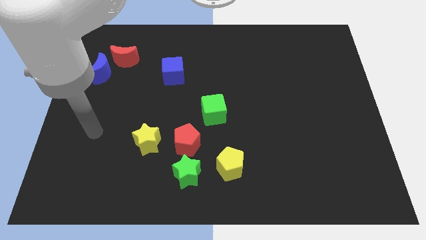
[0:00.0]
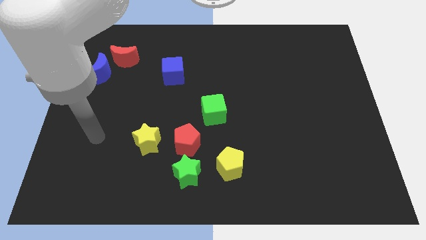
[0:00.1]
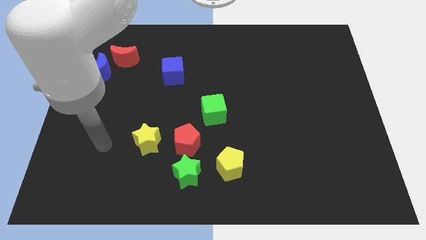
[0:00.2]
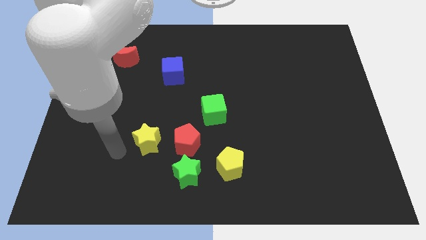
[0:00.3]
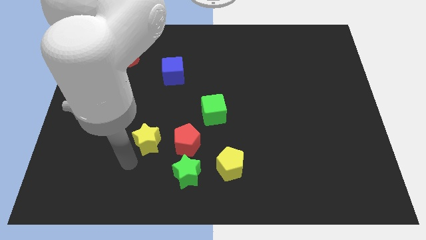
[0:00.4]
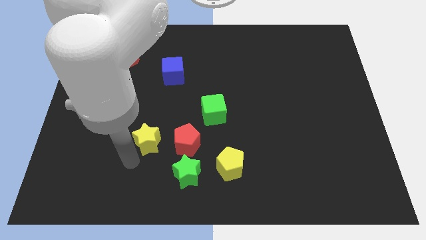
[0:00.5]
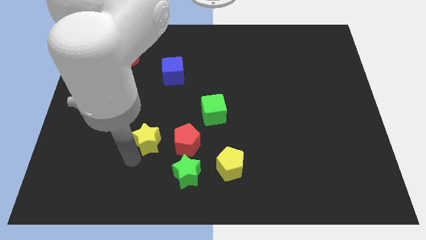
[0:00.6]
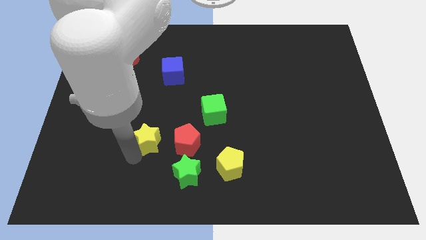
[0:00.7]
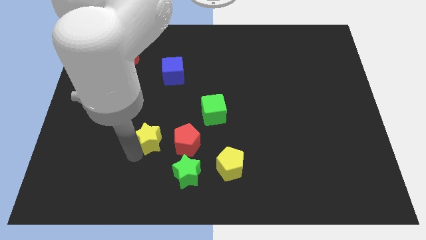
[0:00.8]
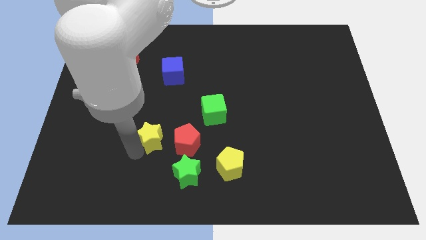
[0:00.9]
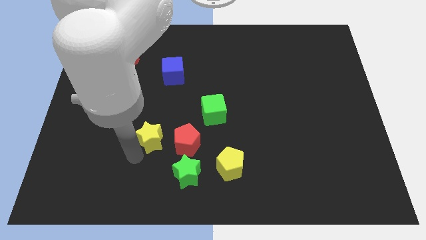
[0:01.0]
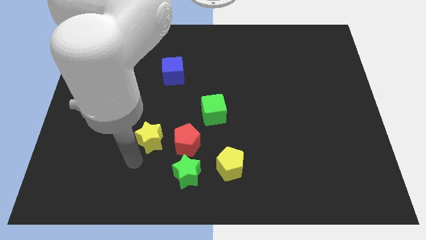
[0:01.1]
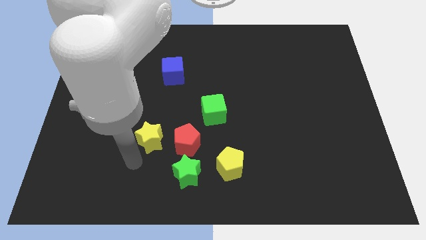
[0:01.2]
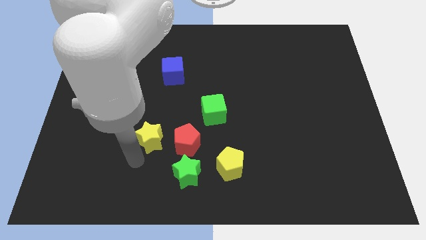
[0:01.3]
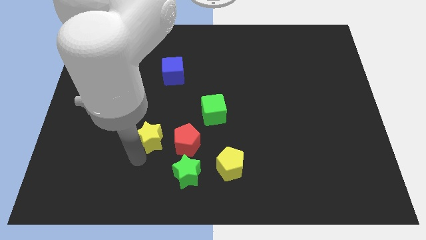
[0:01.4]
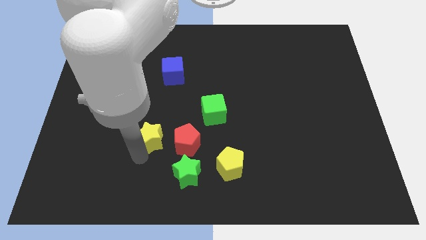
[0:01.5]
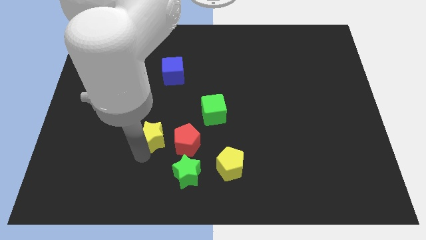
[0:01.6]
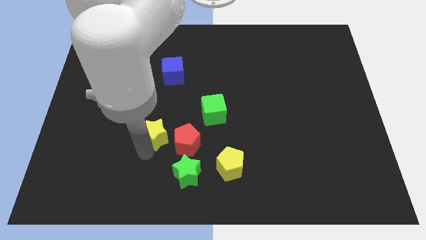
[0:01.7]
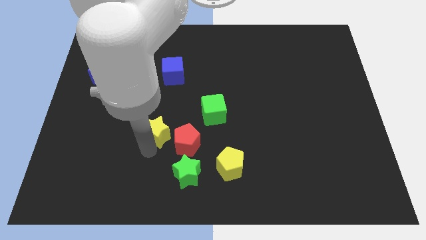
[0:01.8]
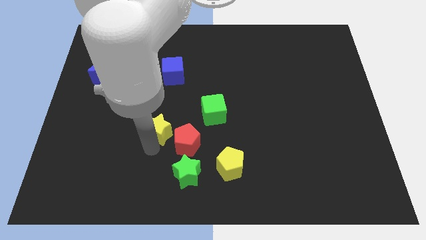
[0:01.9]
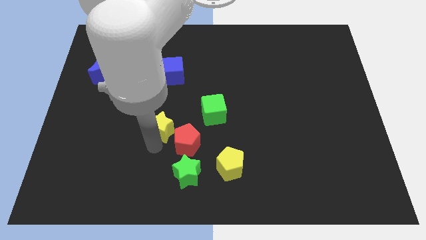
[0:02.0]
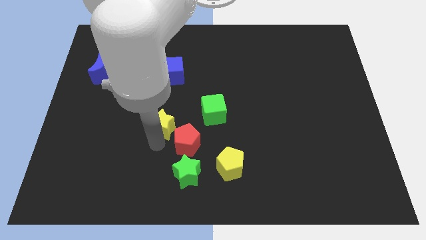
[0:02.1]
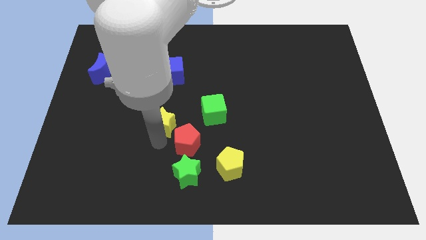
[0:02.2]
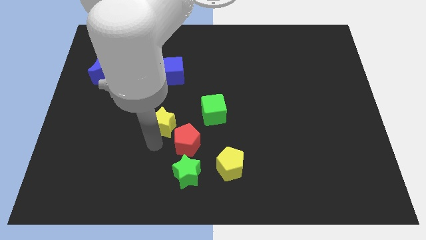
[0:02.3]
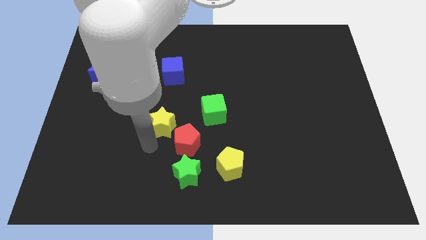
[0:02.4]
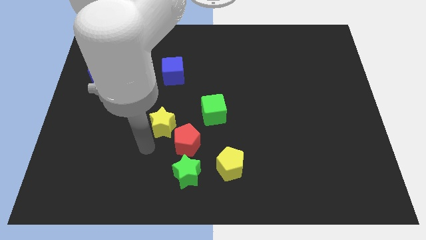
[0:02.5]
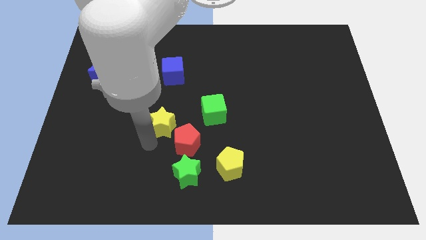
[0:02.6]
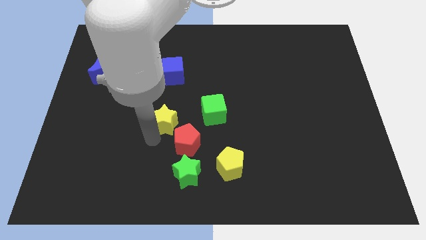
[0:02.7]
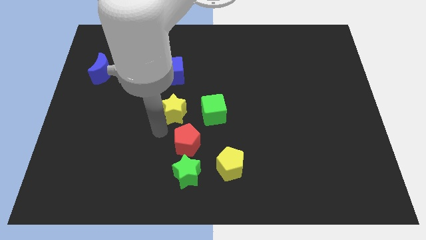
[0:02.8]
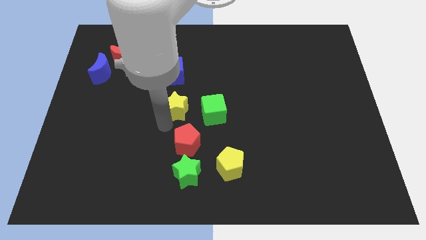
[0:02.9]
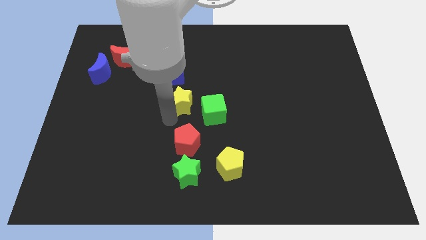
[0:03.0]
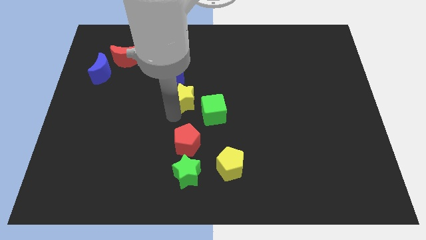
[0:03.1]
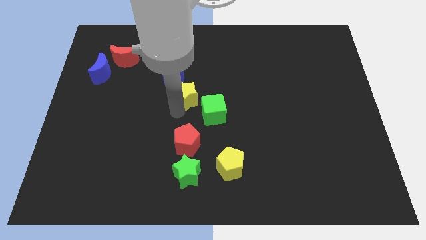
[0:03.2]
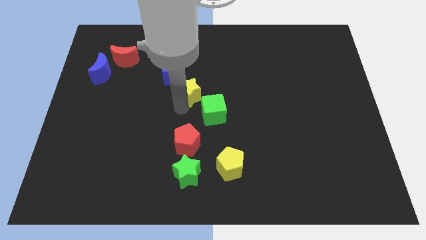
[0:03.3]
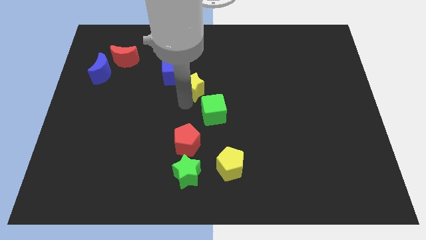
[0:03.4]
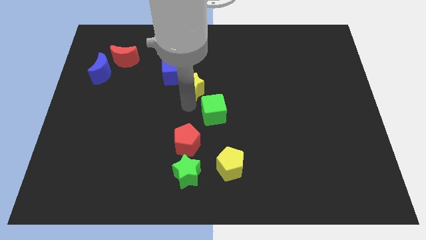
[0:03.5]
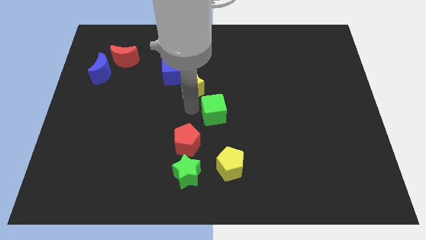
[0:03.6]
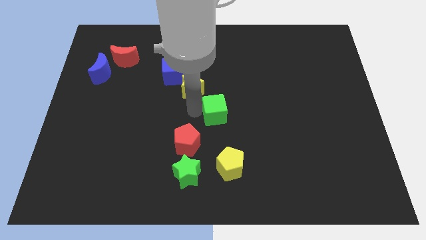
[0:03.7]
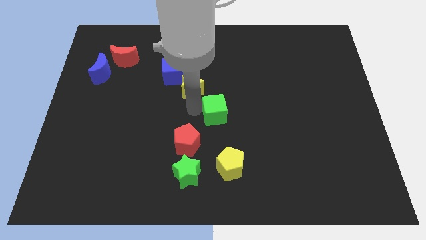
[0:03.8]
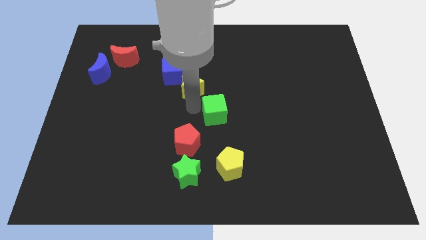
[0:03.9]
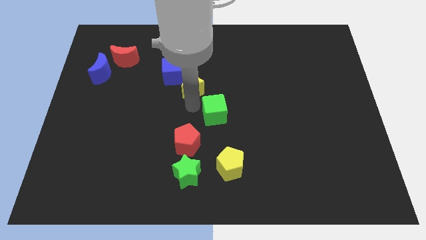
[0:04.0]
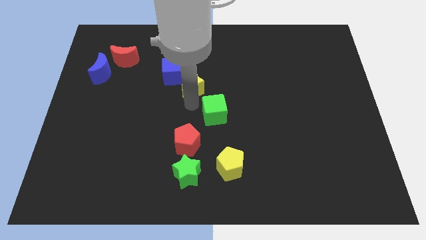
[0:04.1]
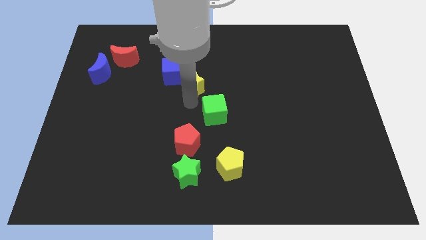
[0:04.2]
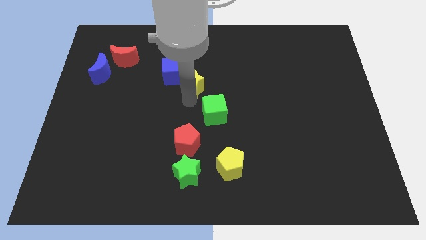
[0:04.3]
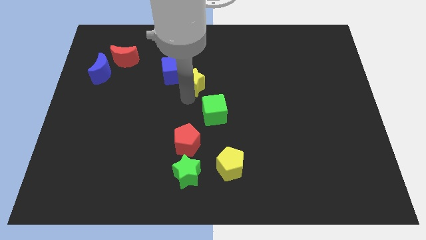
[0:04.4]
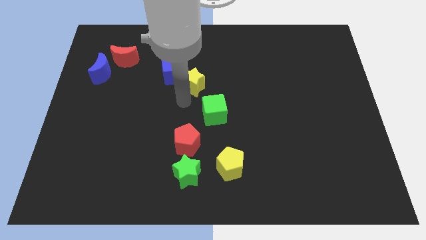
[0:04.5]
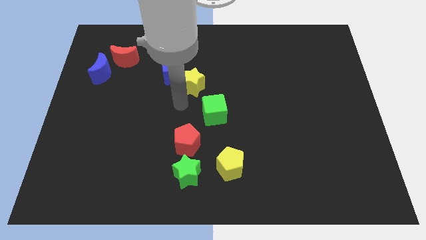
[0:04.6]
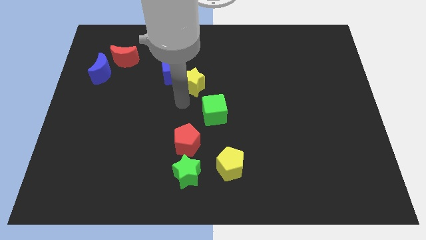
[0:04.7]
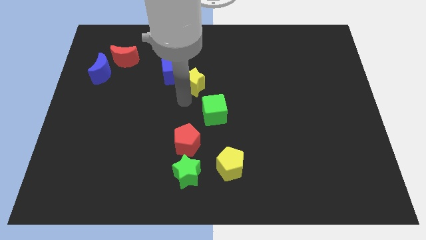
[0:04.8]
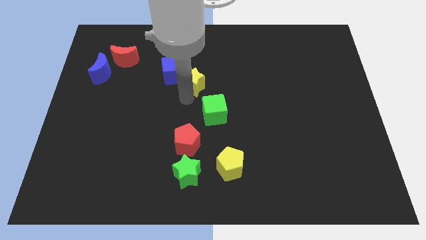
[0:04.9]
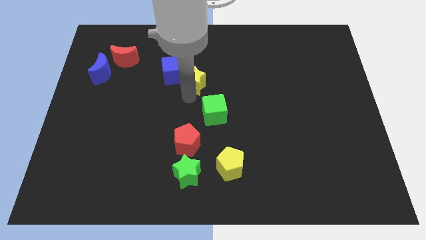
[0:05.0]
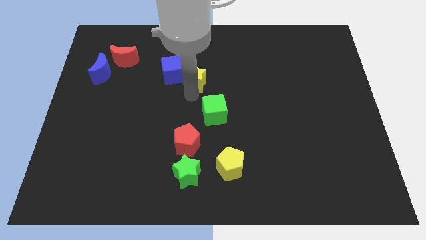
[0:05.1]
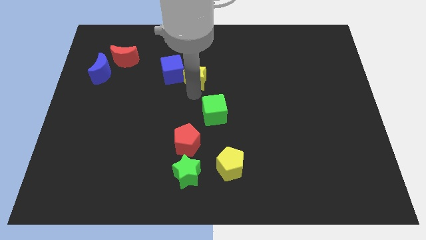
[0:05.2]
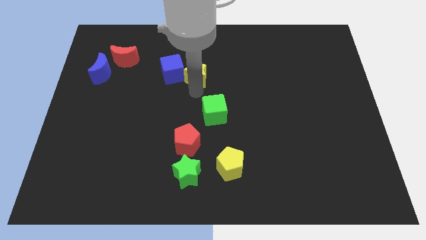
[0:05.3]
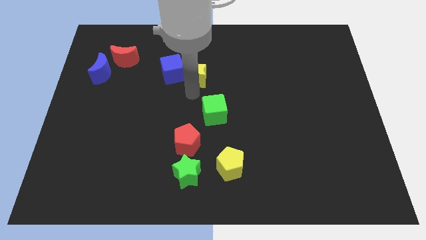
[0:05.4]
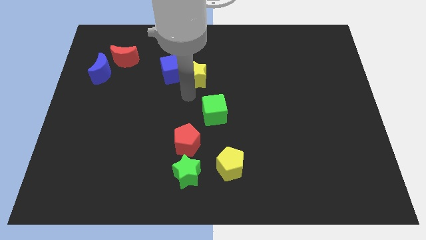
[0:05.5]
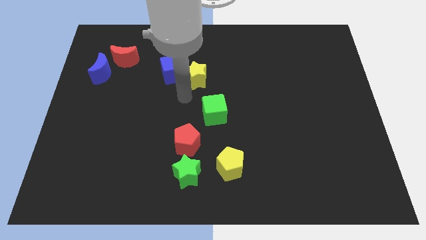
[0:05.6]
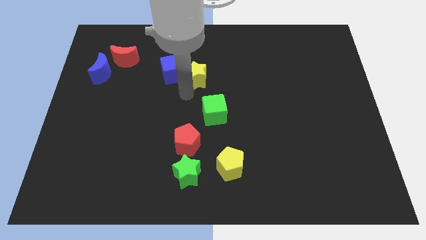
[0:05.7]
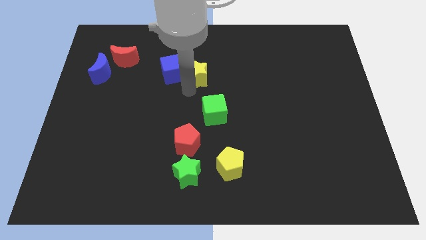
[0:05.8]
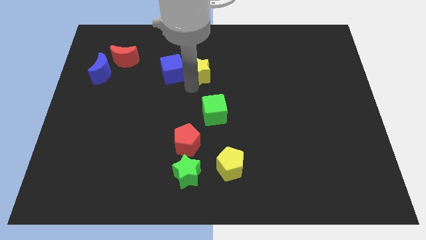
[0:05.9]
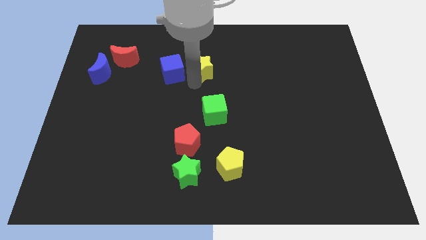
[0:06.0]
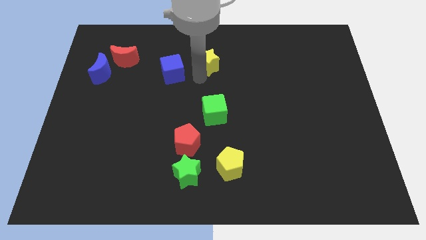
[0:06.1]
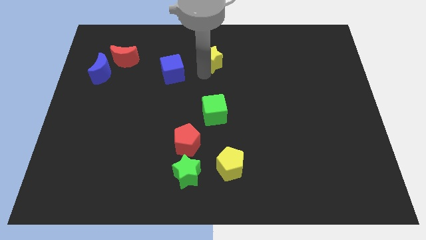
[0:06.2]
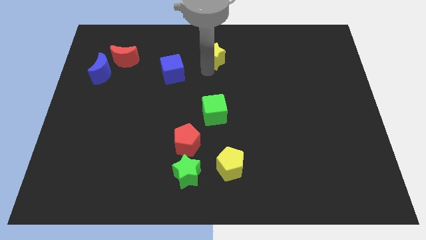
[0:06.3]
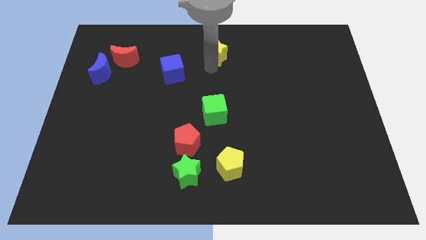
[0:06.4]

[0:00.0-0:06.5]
put the yellow star to the top
